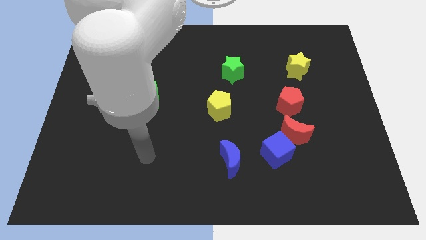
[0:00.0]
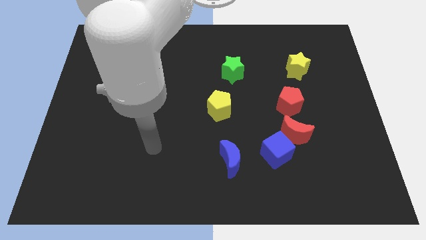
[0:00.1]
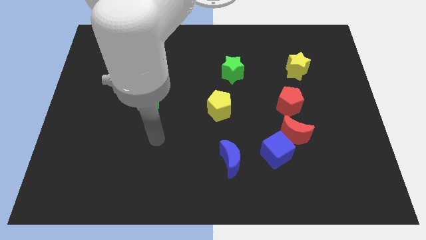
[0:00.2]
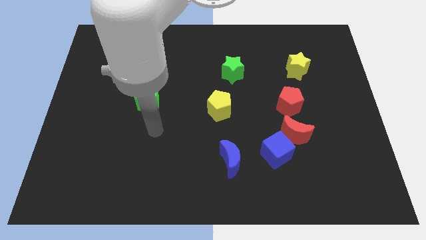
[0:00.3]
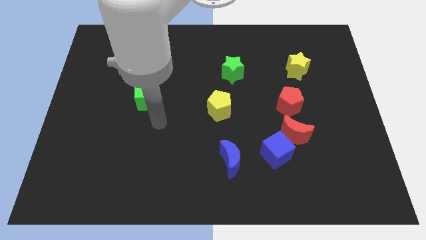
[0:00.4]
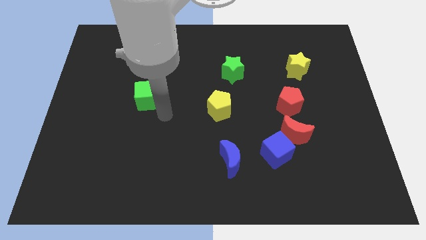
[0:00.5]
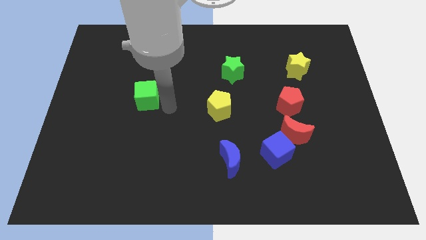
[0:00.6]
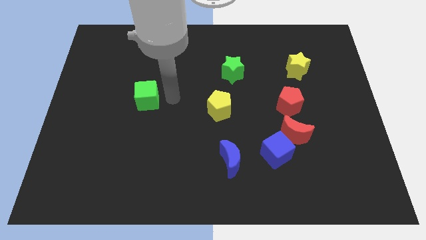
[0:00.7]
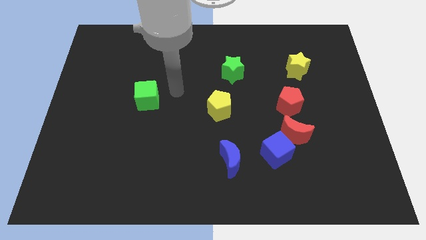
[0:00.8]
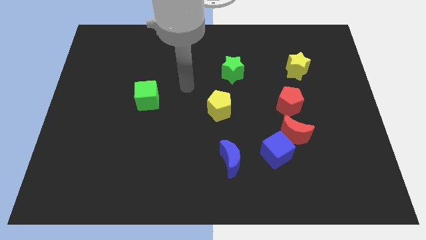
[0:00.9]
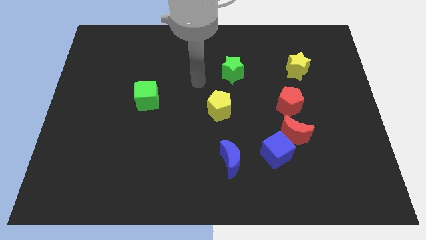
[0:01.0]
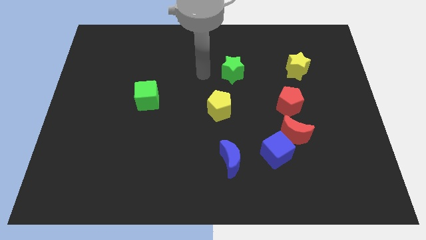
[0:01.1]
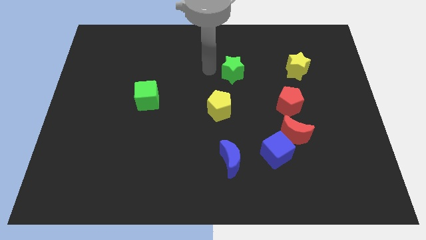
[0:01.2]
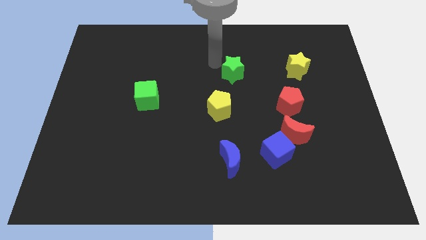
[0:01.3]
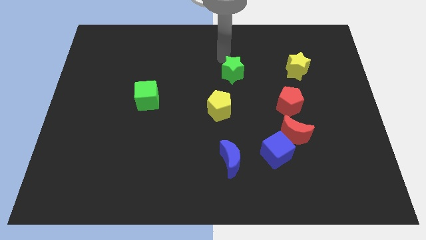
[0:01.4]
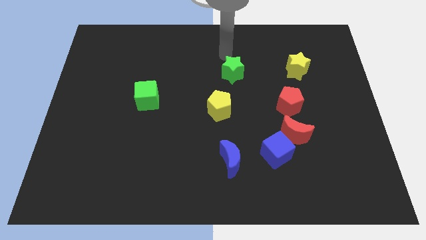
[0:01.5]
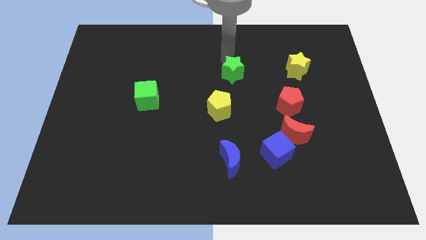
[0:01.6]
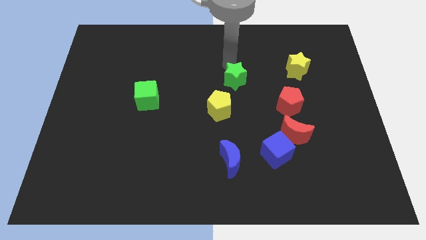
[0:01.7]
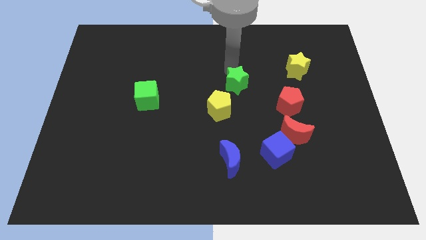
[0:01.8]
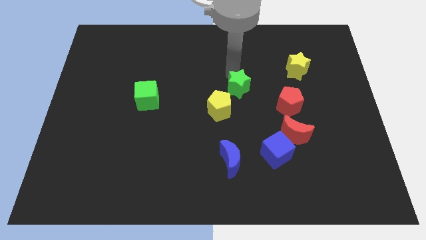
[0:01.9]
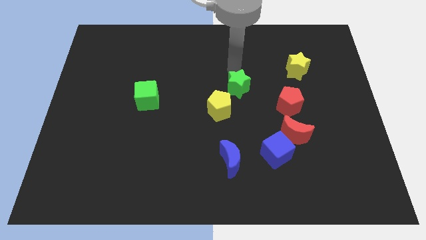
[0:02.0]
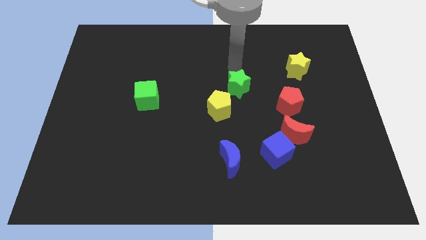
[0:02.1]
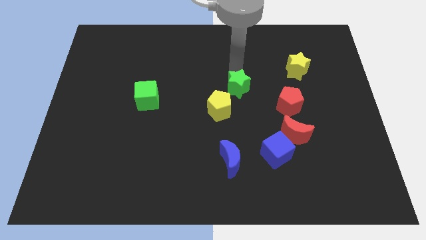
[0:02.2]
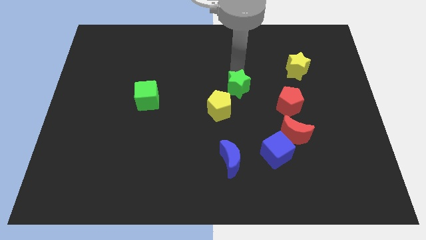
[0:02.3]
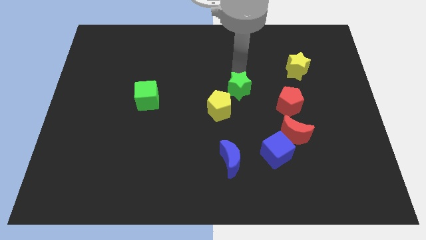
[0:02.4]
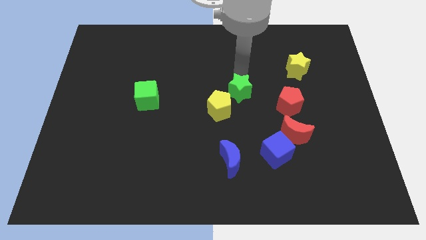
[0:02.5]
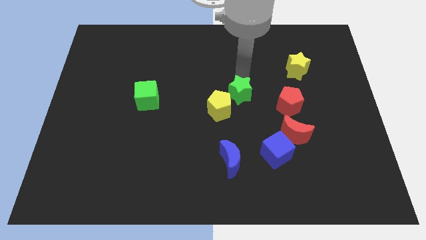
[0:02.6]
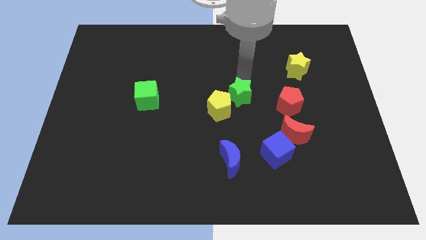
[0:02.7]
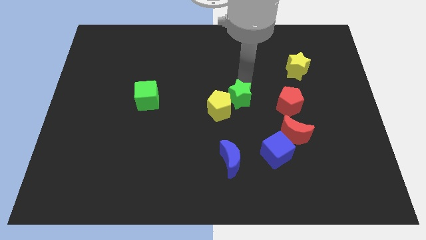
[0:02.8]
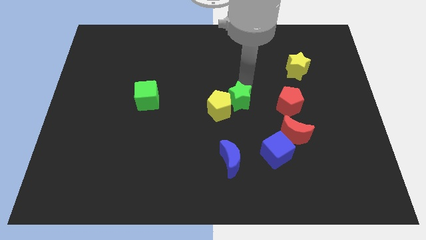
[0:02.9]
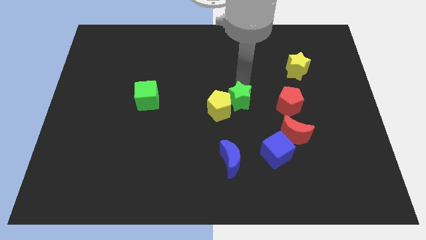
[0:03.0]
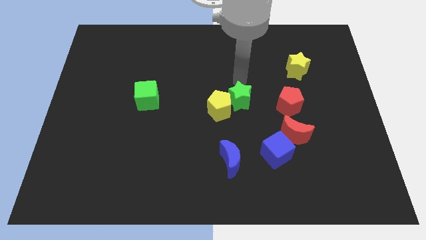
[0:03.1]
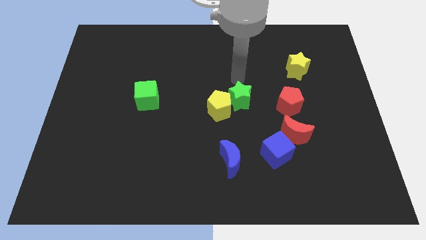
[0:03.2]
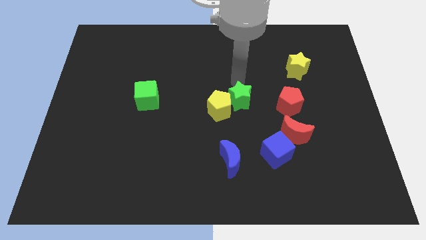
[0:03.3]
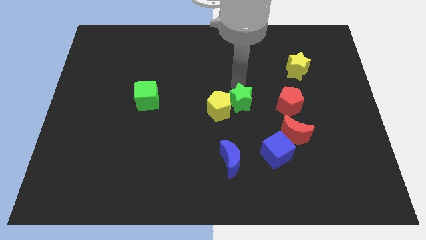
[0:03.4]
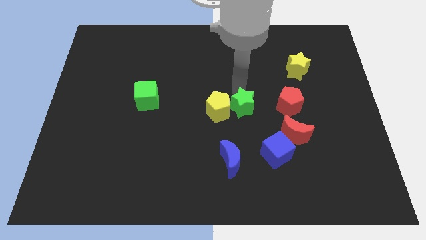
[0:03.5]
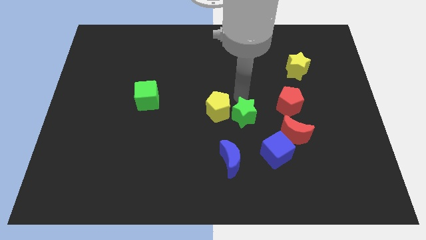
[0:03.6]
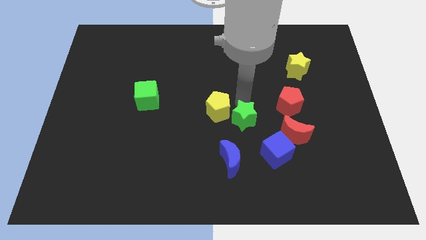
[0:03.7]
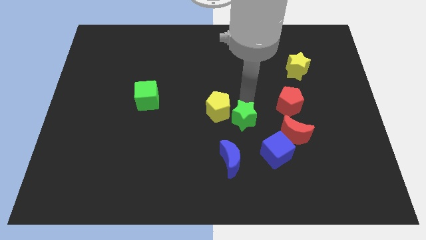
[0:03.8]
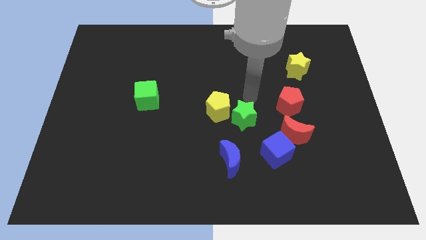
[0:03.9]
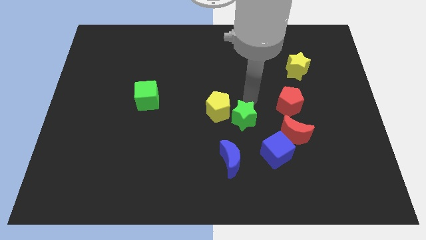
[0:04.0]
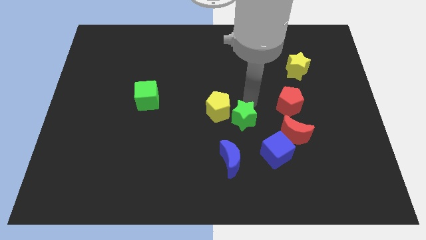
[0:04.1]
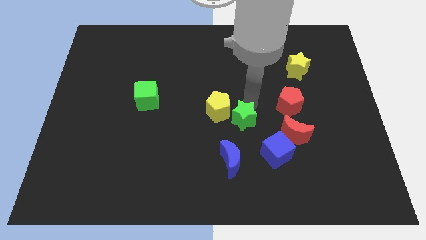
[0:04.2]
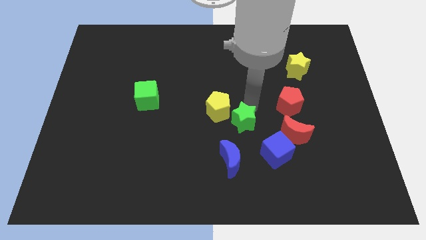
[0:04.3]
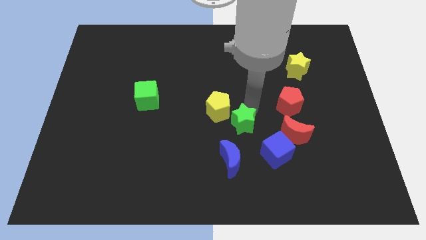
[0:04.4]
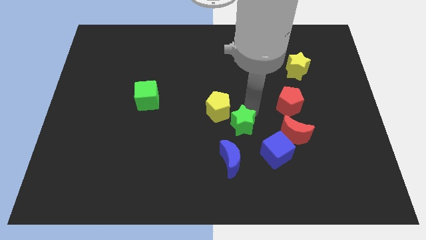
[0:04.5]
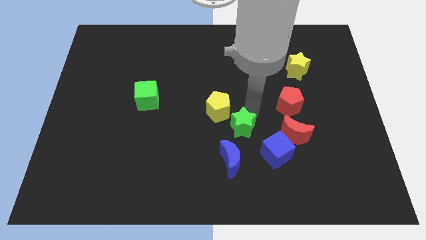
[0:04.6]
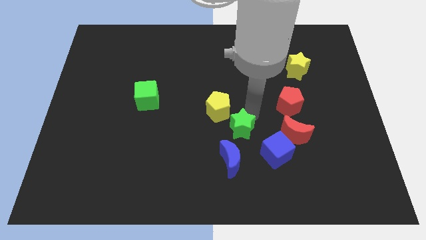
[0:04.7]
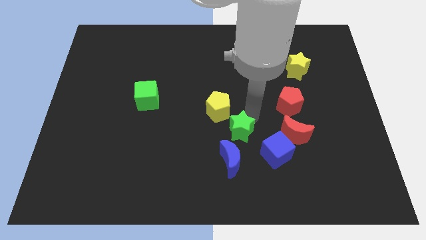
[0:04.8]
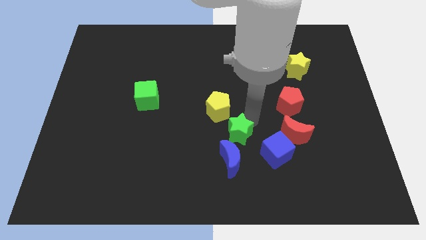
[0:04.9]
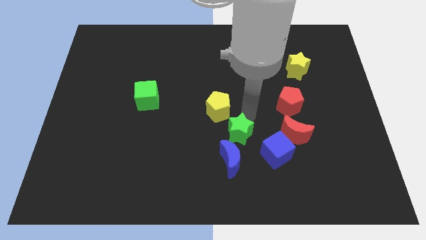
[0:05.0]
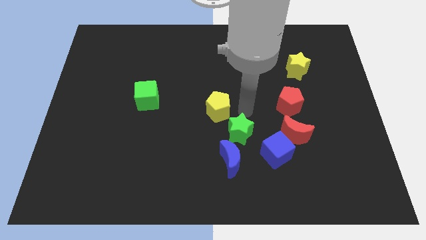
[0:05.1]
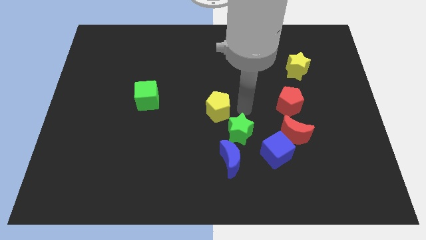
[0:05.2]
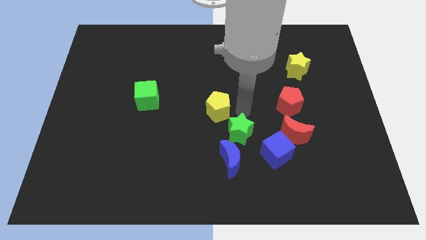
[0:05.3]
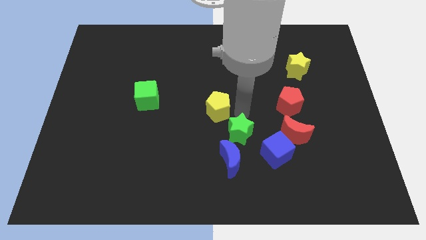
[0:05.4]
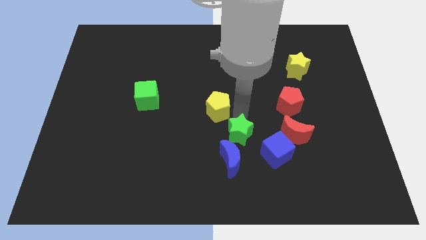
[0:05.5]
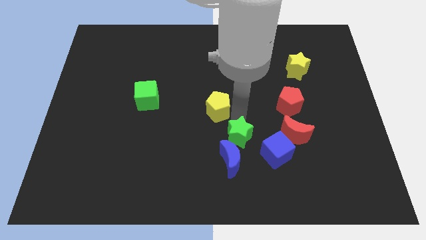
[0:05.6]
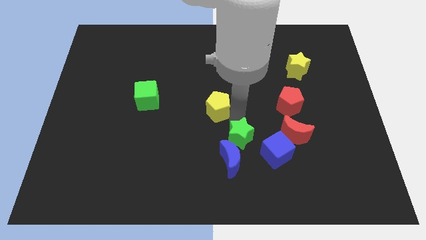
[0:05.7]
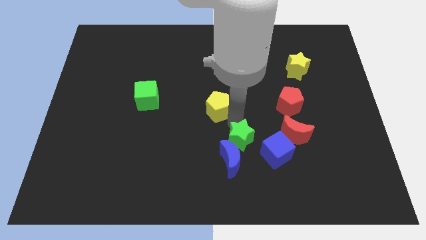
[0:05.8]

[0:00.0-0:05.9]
put the green star next to the blue moon

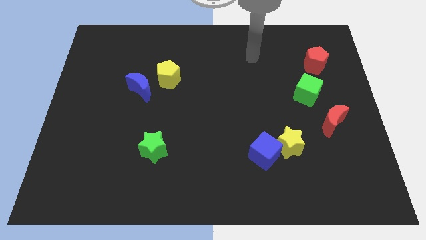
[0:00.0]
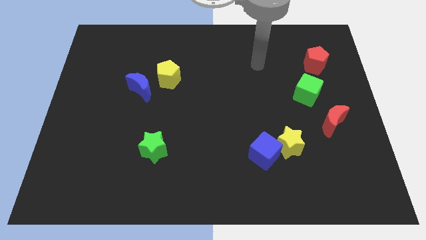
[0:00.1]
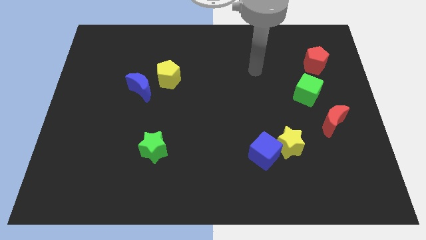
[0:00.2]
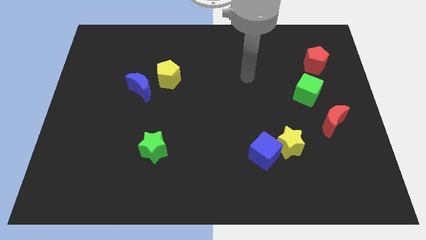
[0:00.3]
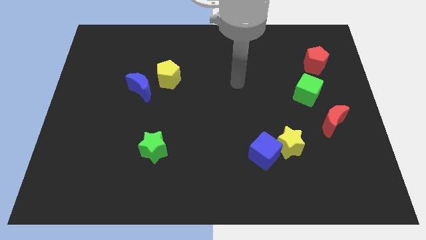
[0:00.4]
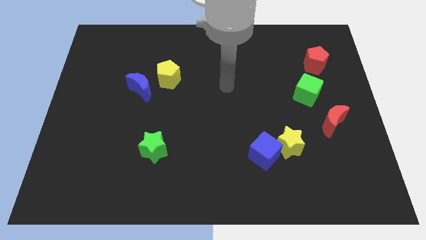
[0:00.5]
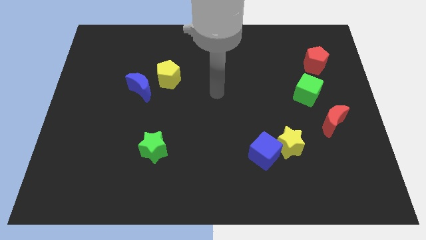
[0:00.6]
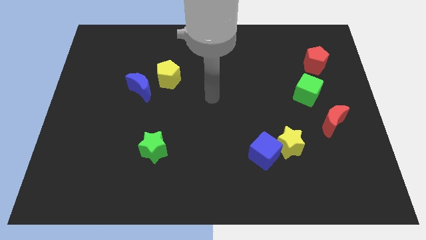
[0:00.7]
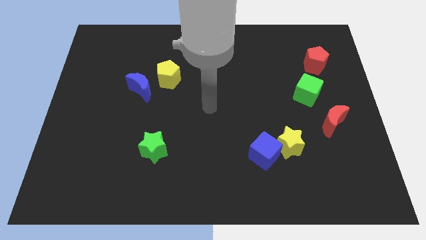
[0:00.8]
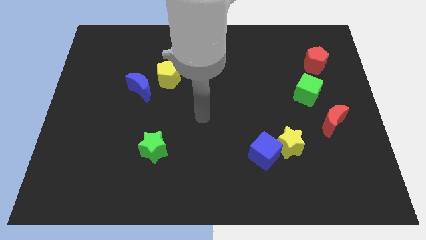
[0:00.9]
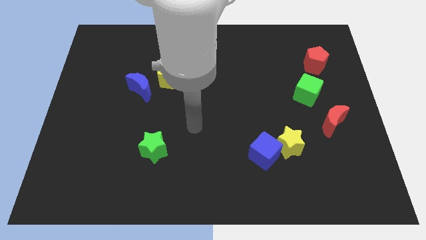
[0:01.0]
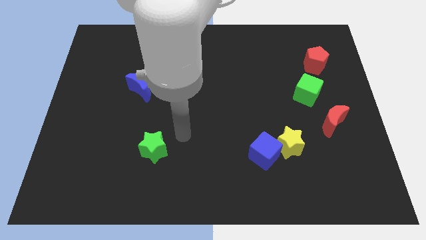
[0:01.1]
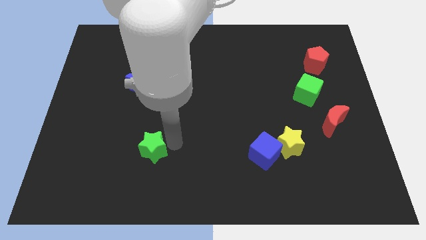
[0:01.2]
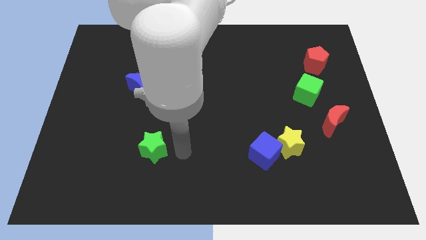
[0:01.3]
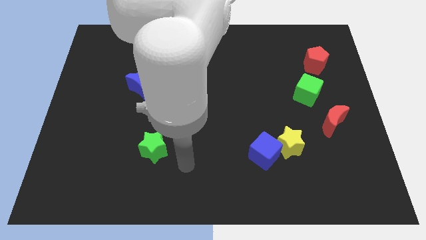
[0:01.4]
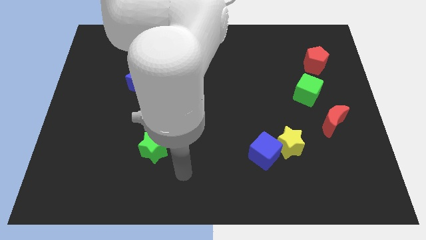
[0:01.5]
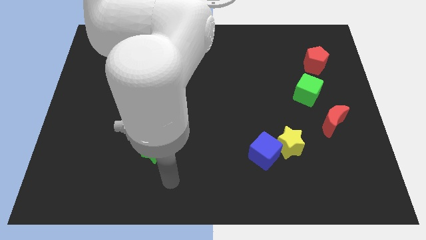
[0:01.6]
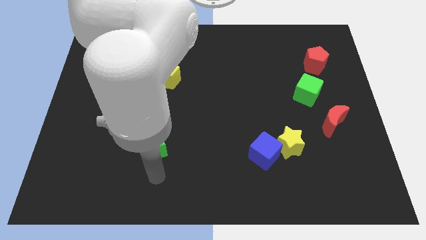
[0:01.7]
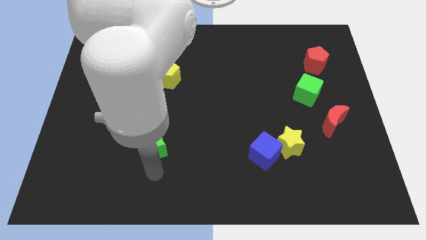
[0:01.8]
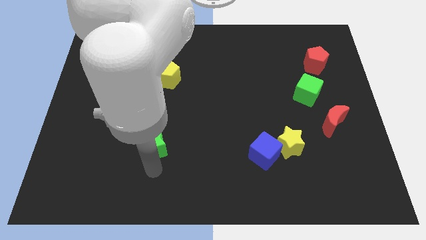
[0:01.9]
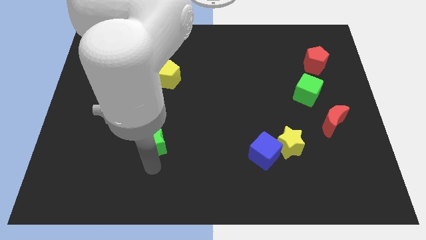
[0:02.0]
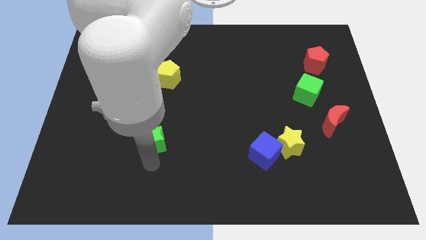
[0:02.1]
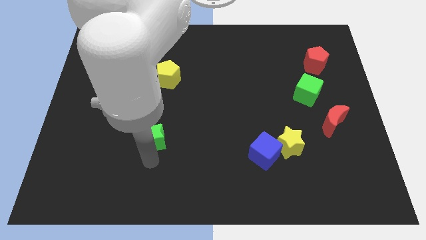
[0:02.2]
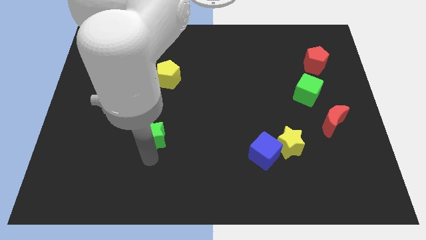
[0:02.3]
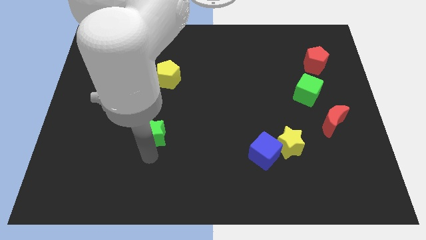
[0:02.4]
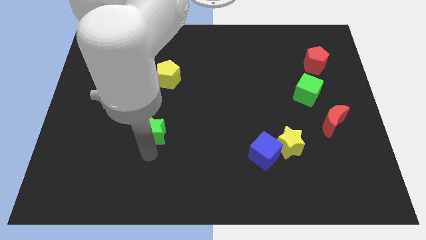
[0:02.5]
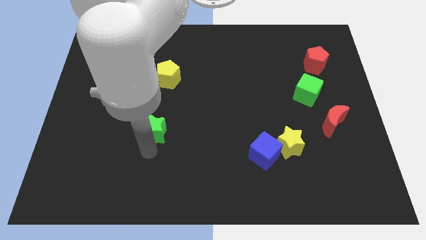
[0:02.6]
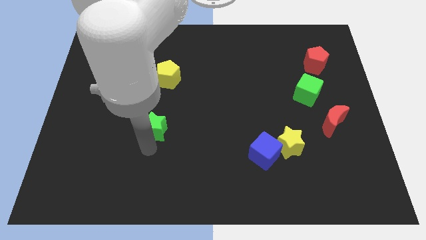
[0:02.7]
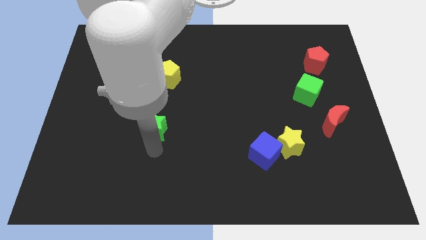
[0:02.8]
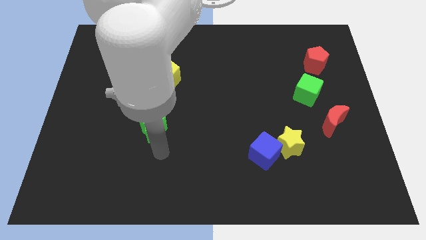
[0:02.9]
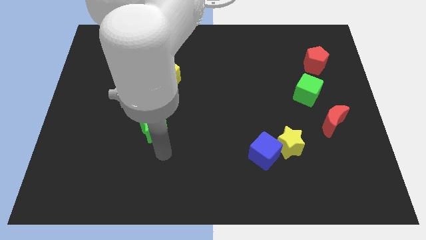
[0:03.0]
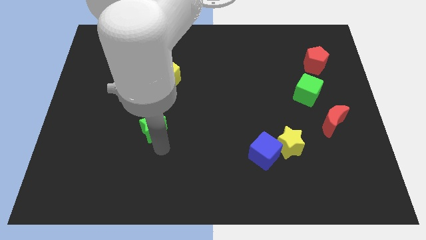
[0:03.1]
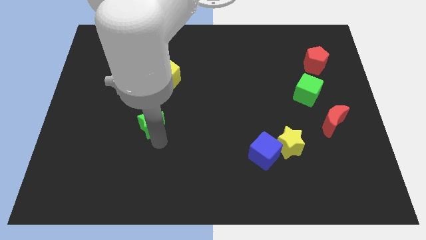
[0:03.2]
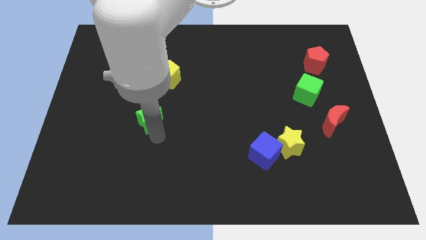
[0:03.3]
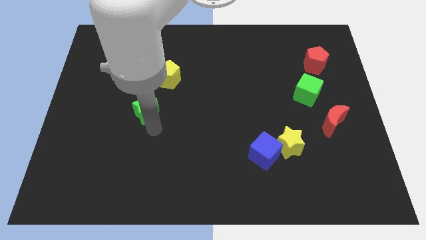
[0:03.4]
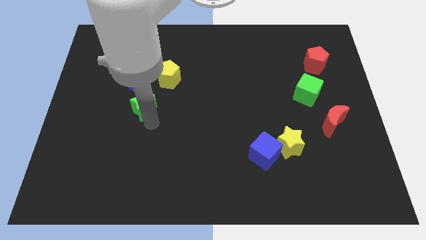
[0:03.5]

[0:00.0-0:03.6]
move the green star to the blue moon
